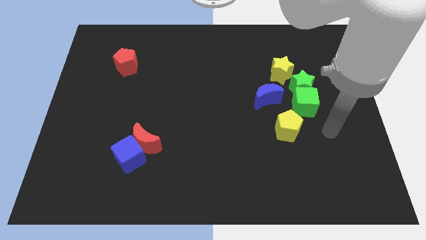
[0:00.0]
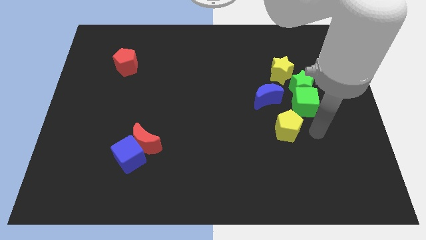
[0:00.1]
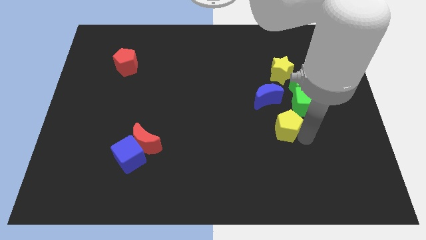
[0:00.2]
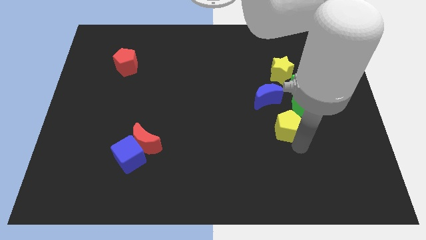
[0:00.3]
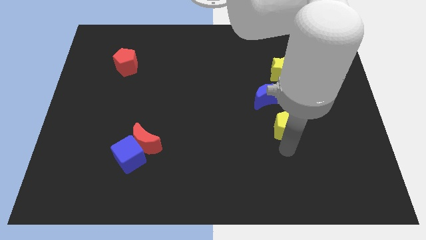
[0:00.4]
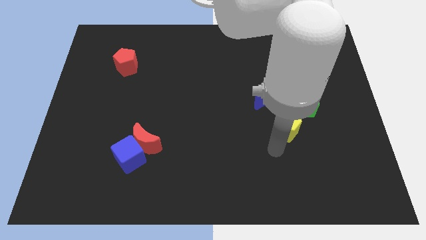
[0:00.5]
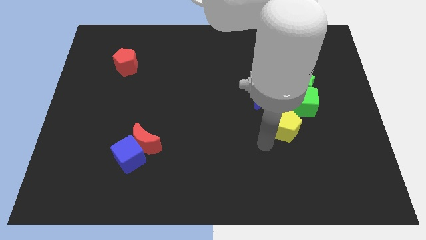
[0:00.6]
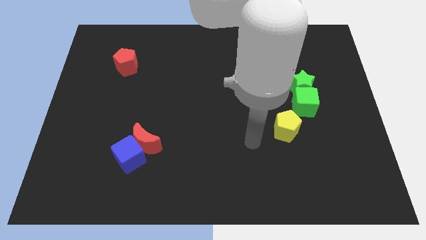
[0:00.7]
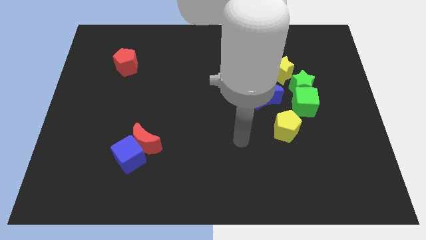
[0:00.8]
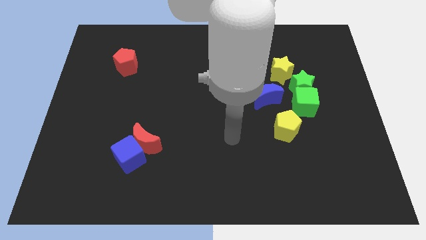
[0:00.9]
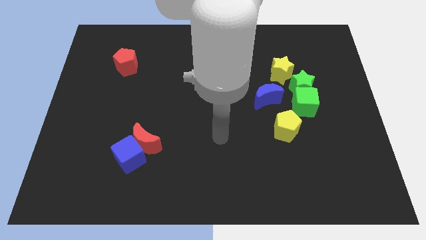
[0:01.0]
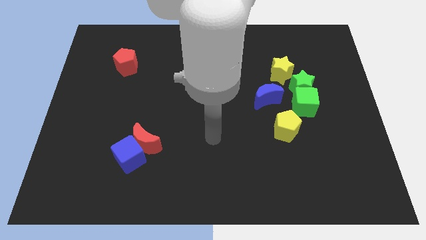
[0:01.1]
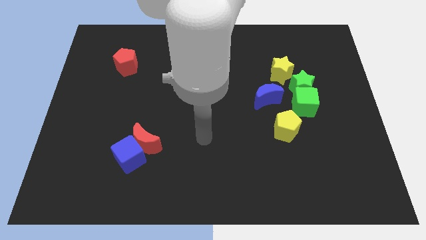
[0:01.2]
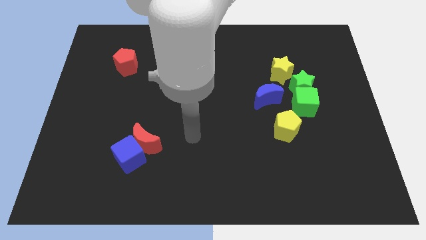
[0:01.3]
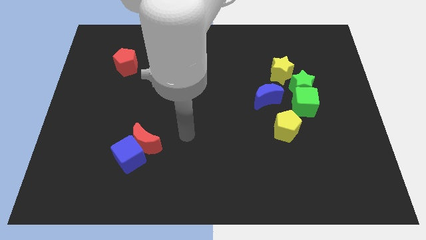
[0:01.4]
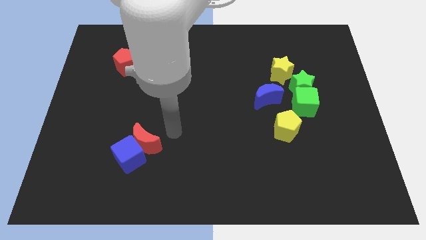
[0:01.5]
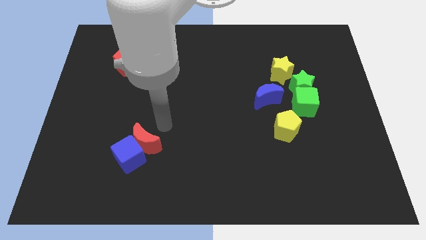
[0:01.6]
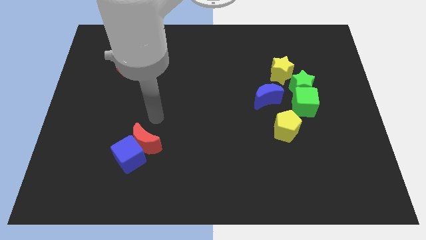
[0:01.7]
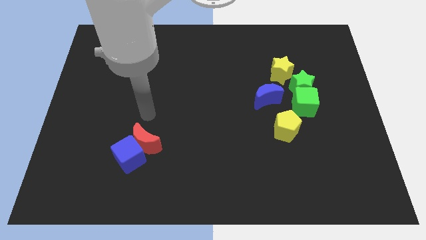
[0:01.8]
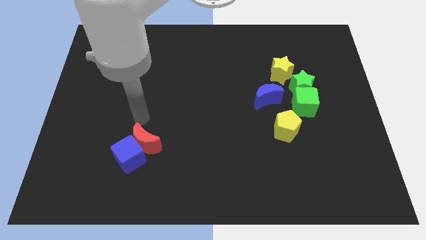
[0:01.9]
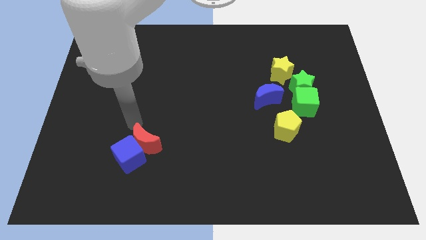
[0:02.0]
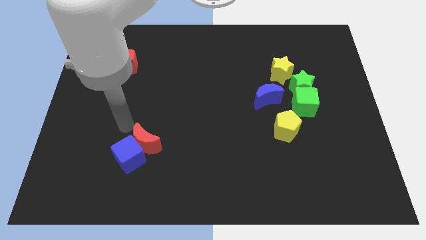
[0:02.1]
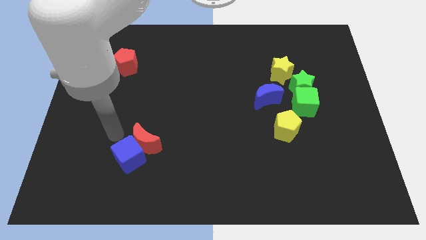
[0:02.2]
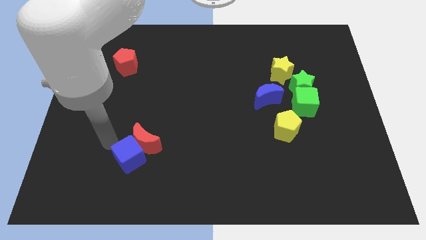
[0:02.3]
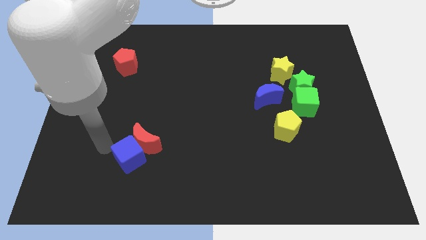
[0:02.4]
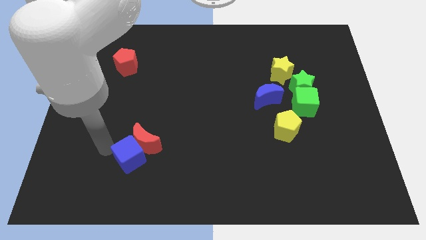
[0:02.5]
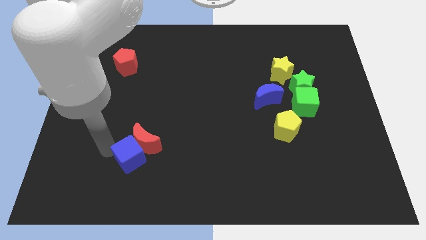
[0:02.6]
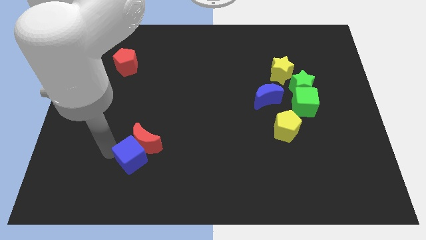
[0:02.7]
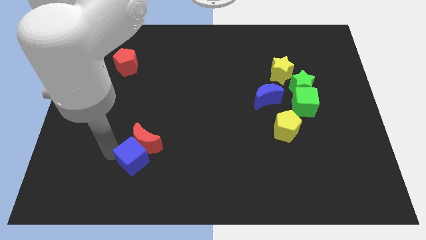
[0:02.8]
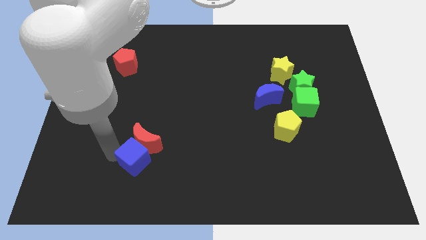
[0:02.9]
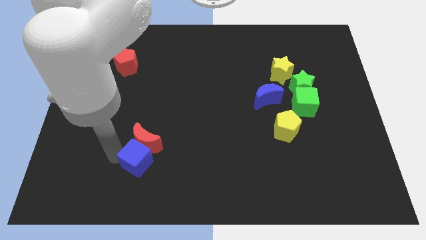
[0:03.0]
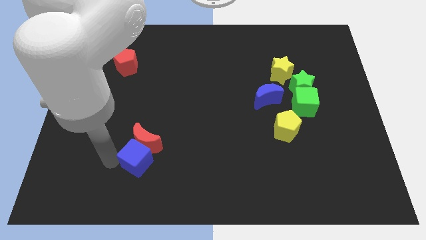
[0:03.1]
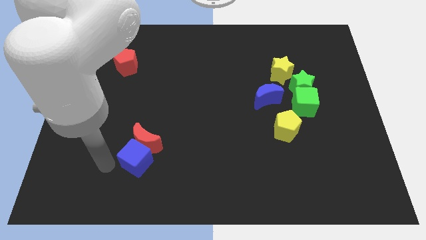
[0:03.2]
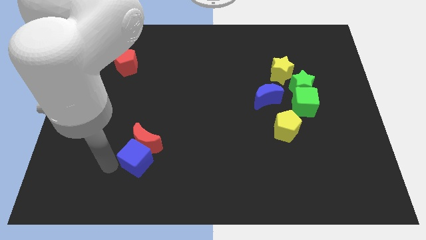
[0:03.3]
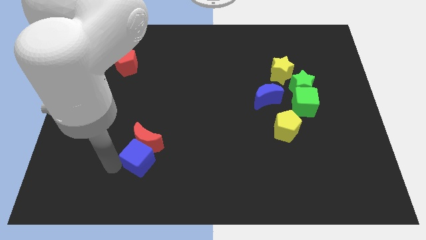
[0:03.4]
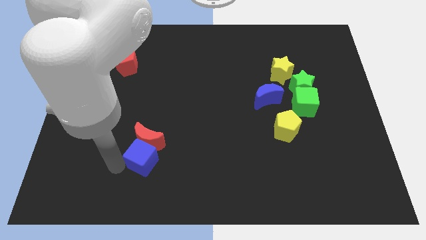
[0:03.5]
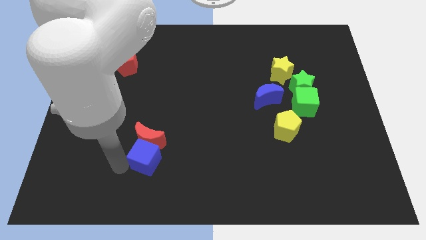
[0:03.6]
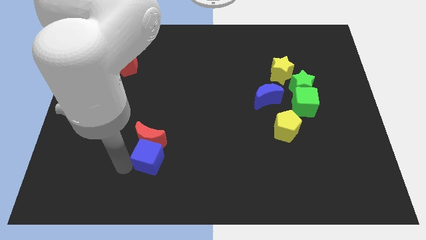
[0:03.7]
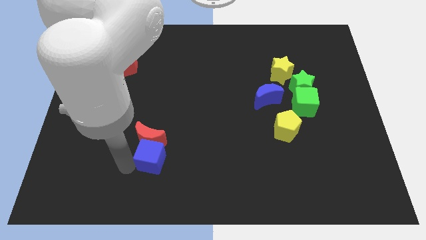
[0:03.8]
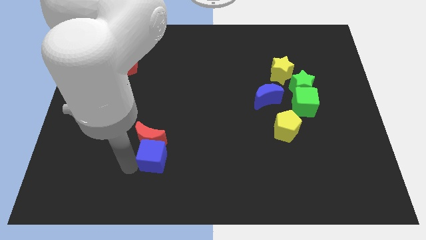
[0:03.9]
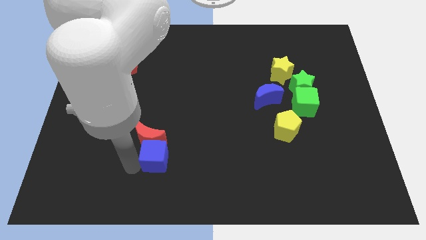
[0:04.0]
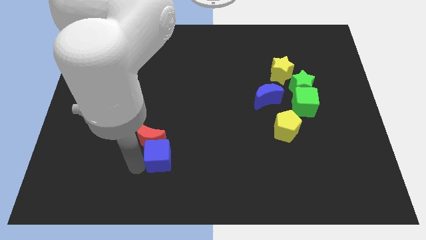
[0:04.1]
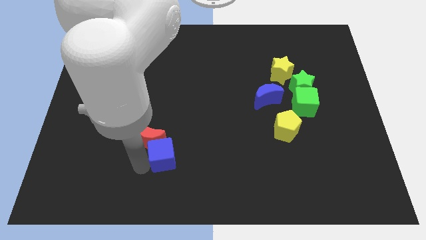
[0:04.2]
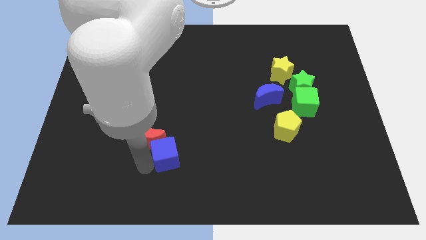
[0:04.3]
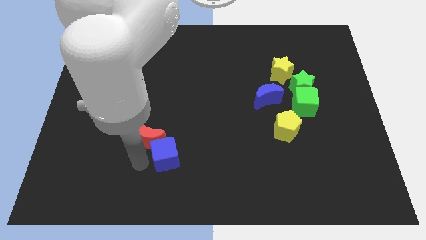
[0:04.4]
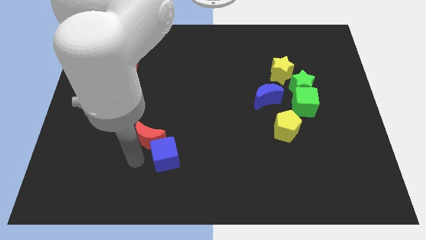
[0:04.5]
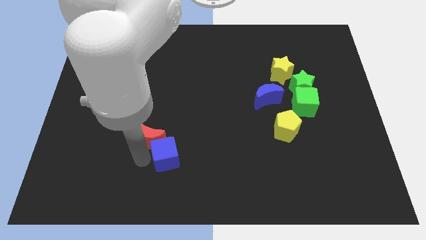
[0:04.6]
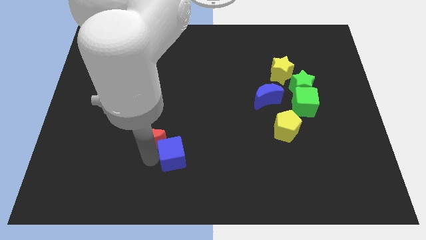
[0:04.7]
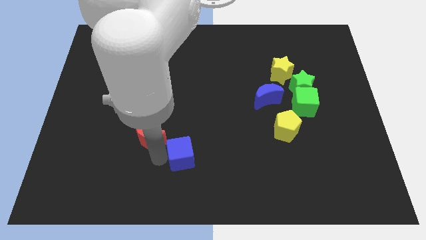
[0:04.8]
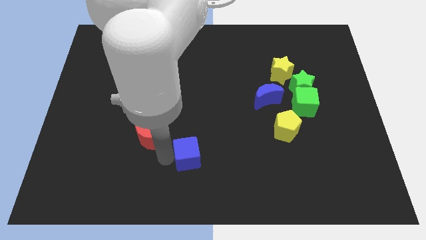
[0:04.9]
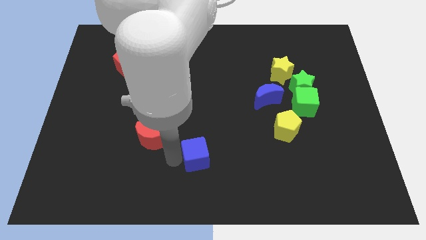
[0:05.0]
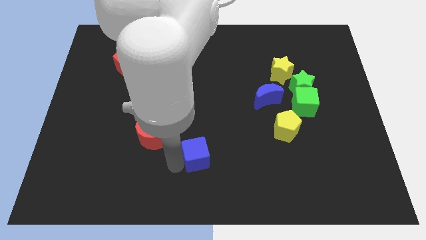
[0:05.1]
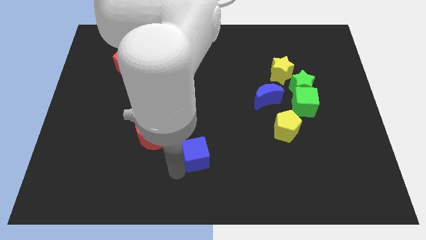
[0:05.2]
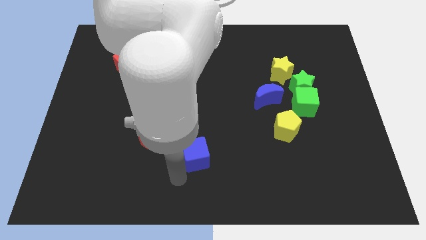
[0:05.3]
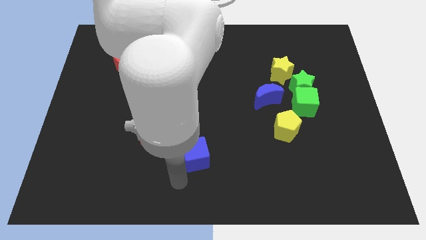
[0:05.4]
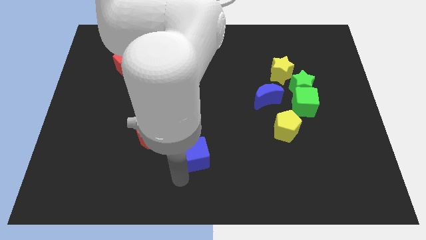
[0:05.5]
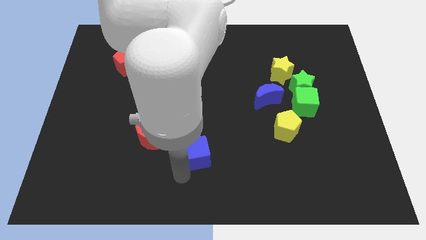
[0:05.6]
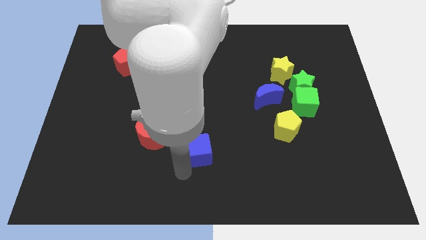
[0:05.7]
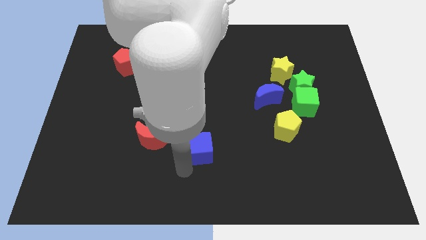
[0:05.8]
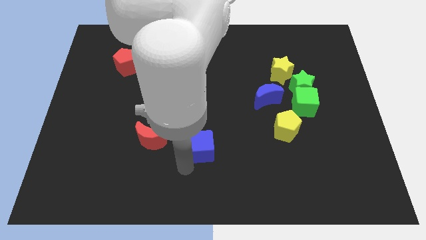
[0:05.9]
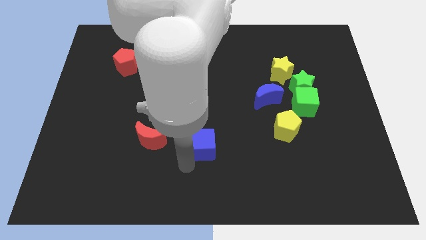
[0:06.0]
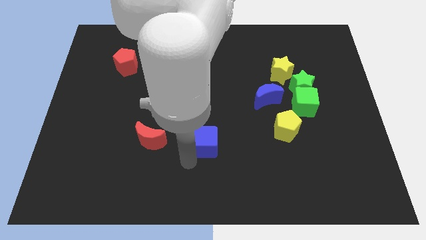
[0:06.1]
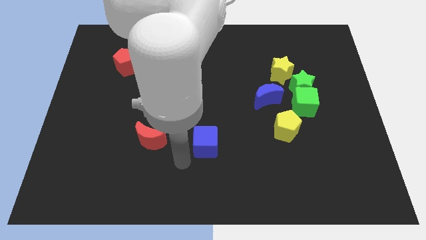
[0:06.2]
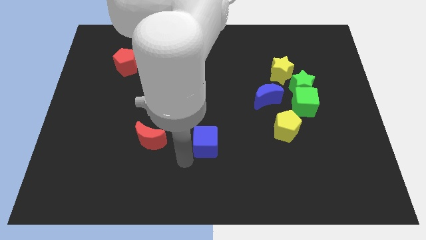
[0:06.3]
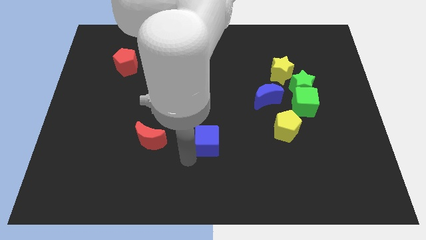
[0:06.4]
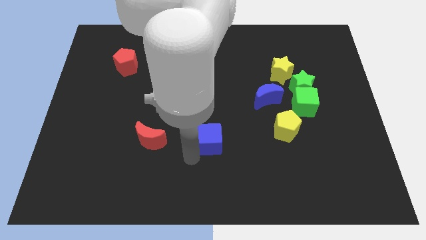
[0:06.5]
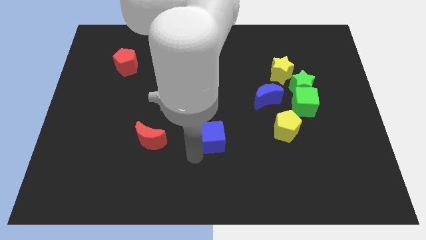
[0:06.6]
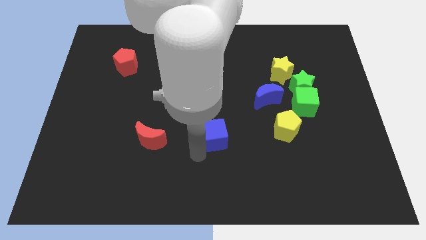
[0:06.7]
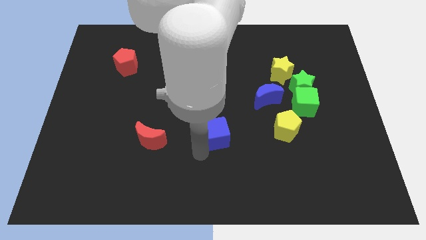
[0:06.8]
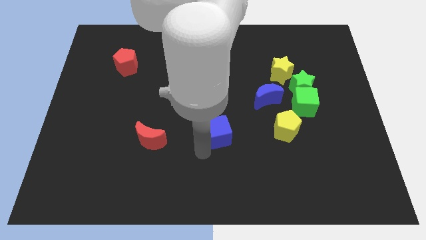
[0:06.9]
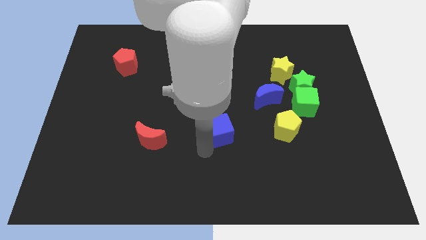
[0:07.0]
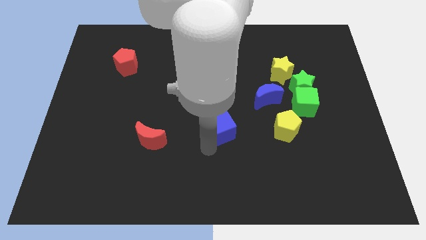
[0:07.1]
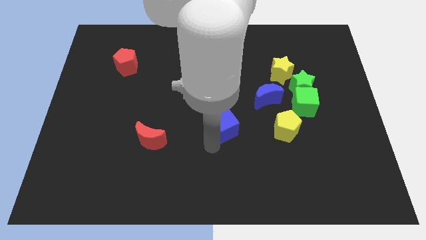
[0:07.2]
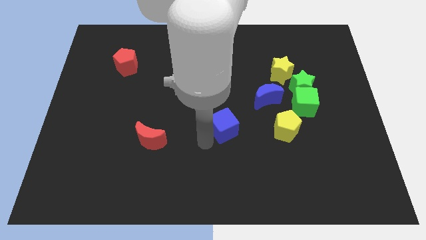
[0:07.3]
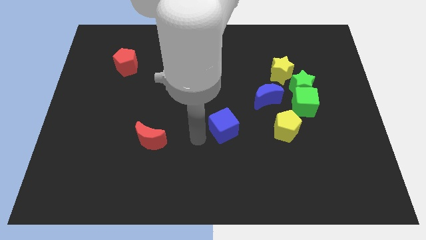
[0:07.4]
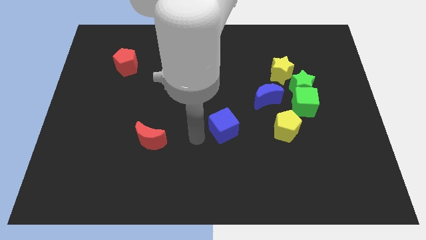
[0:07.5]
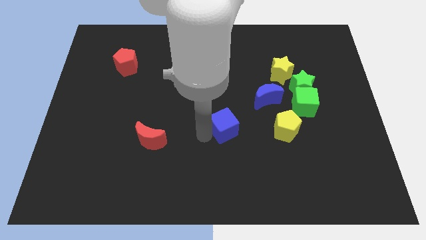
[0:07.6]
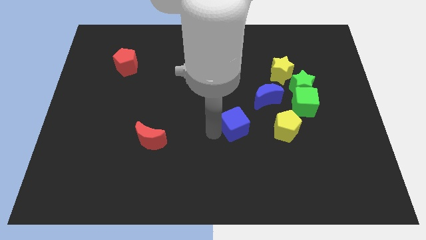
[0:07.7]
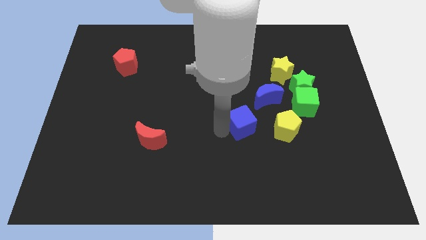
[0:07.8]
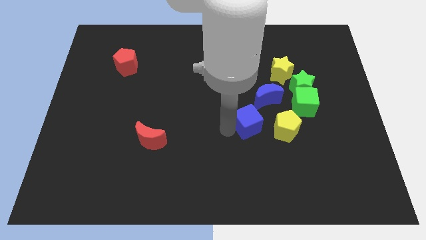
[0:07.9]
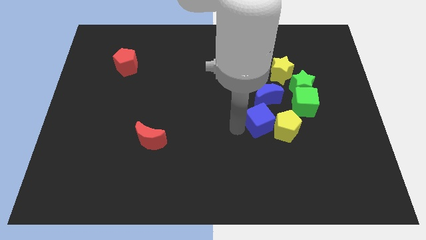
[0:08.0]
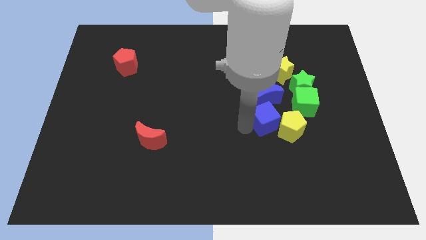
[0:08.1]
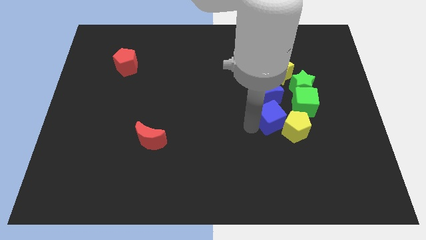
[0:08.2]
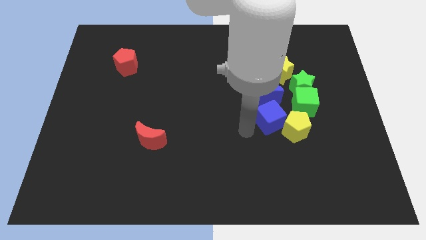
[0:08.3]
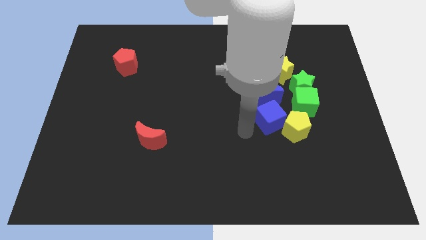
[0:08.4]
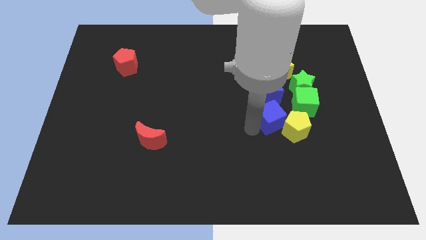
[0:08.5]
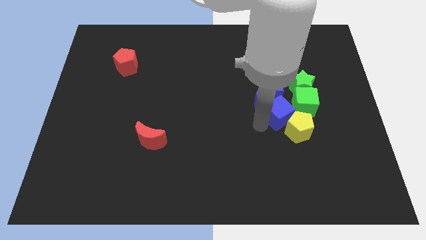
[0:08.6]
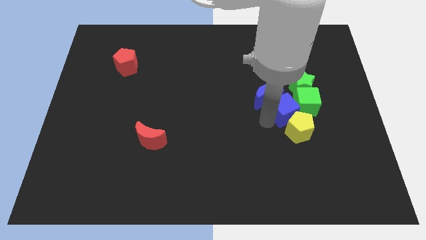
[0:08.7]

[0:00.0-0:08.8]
push the blue cube close to the green cube
